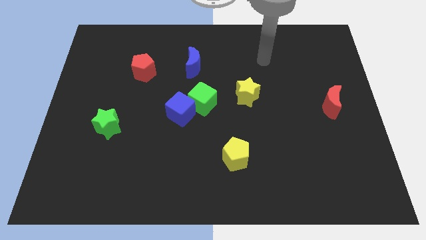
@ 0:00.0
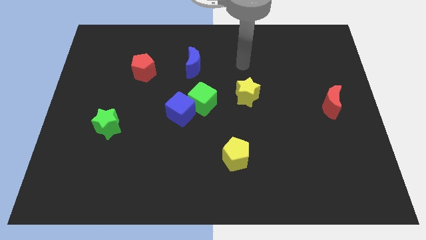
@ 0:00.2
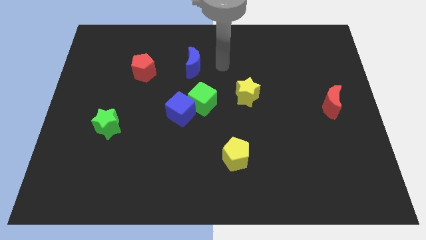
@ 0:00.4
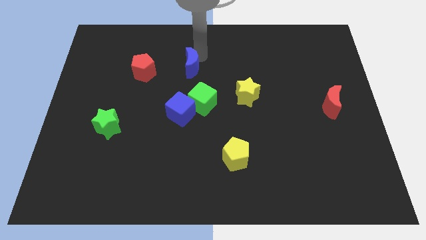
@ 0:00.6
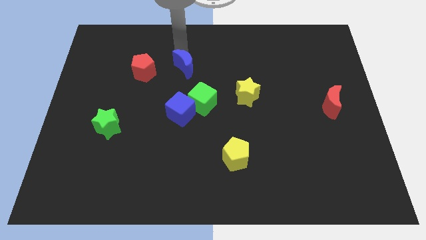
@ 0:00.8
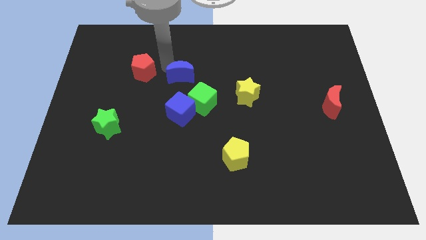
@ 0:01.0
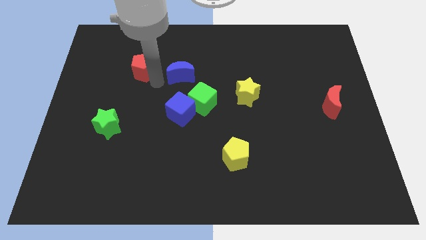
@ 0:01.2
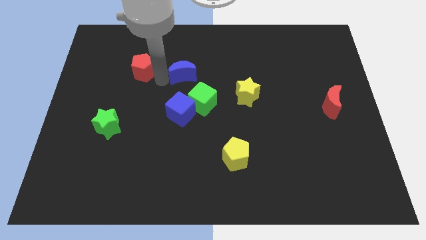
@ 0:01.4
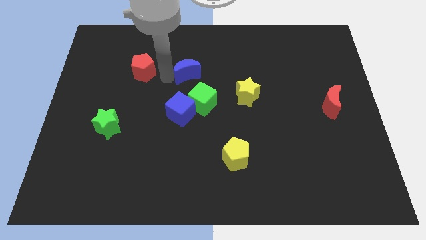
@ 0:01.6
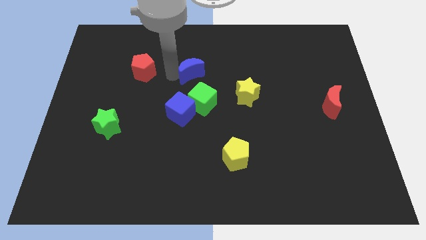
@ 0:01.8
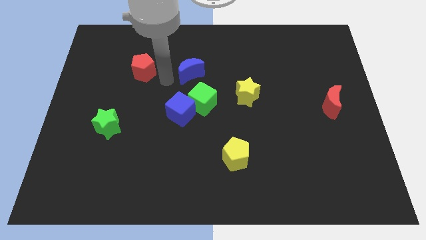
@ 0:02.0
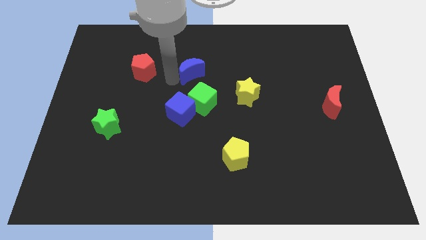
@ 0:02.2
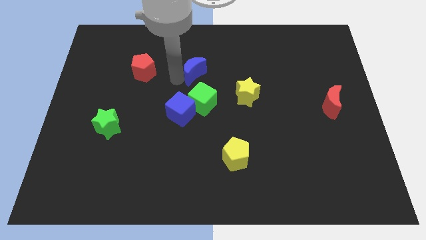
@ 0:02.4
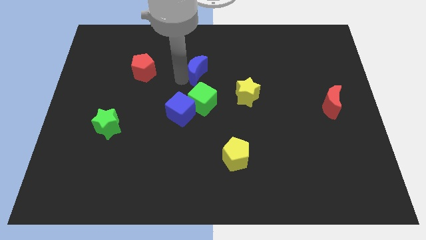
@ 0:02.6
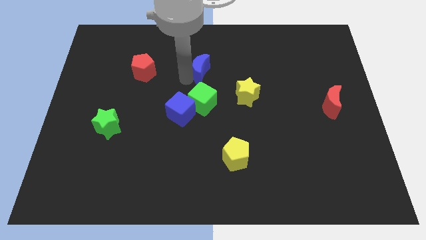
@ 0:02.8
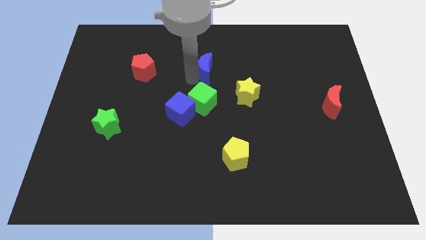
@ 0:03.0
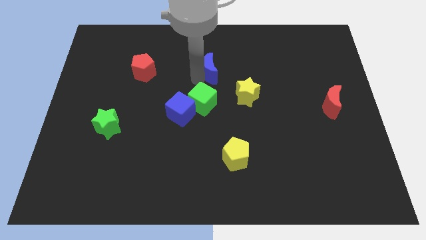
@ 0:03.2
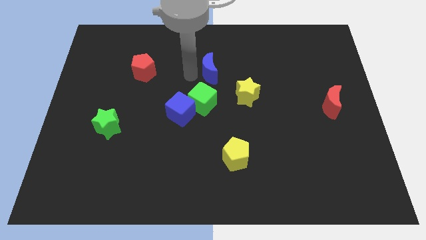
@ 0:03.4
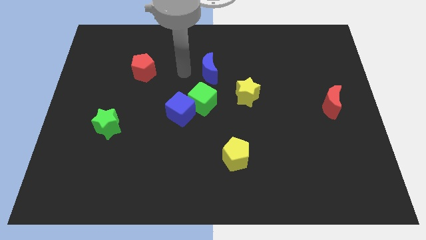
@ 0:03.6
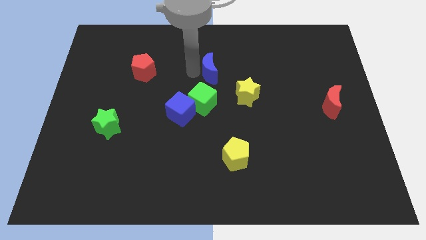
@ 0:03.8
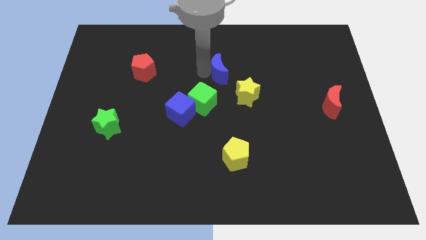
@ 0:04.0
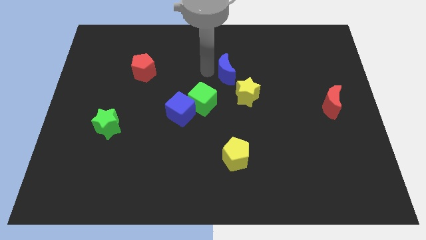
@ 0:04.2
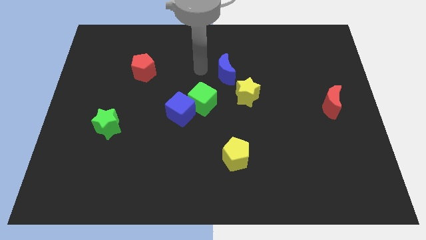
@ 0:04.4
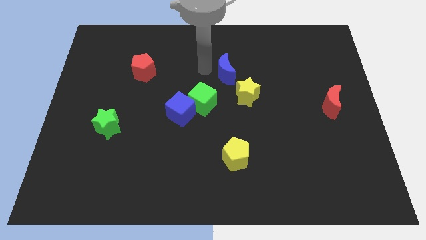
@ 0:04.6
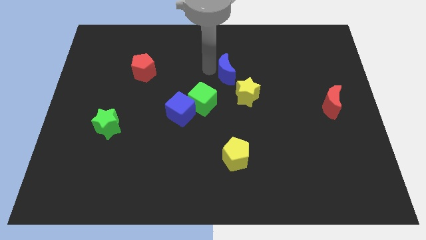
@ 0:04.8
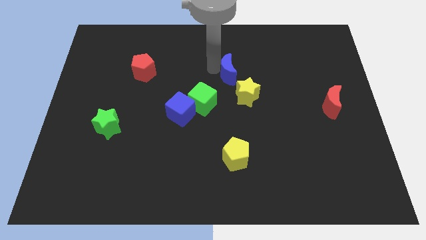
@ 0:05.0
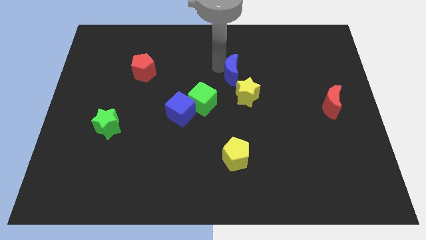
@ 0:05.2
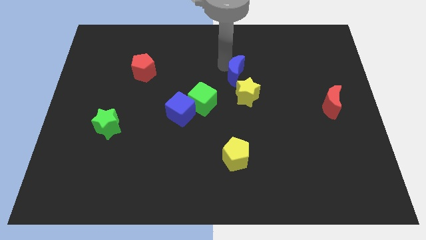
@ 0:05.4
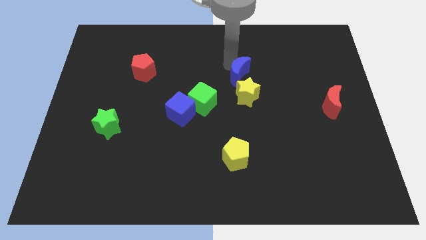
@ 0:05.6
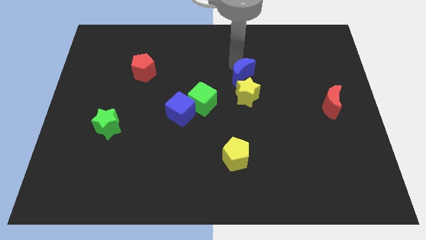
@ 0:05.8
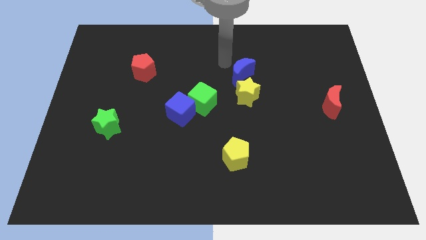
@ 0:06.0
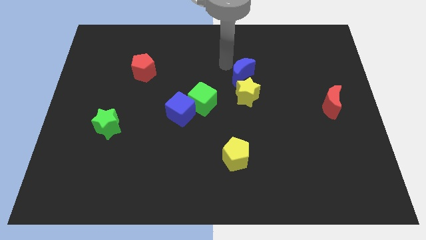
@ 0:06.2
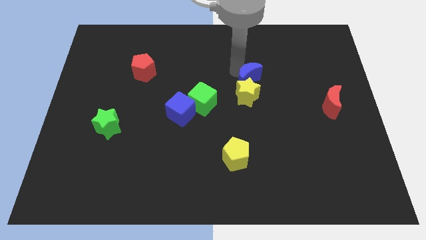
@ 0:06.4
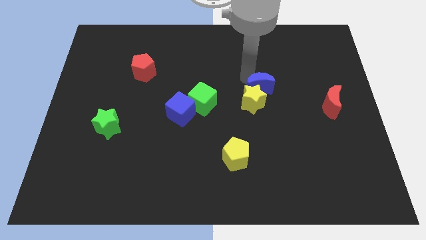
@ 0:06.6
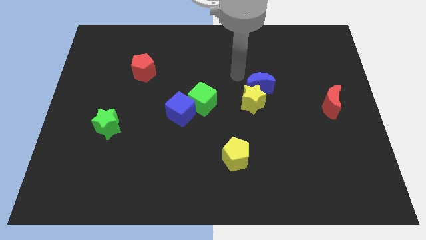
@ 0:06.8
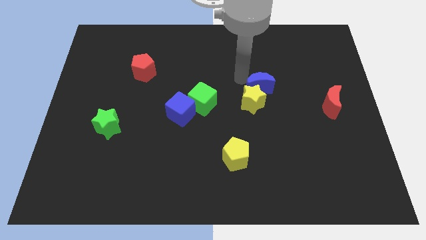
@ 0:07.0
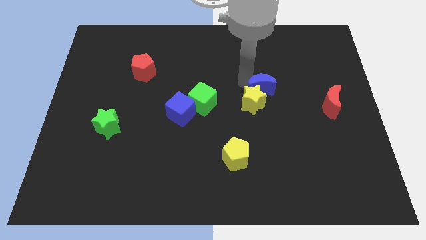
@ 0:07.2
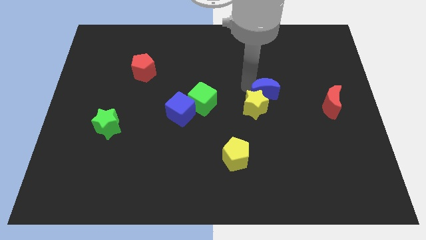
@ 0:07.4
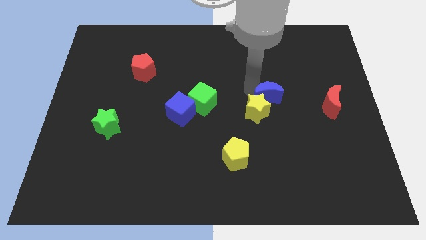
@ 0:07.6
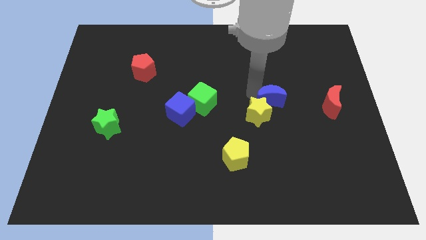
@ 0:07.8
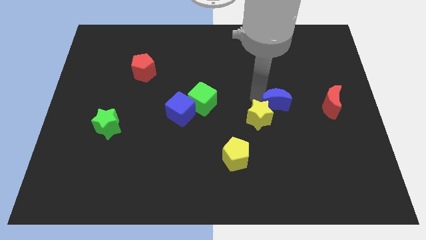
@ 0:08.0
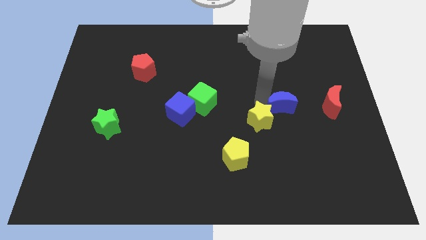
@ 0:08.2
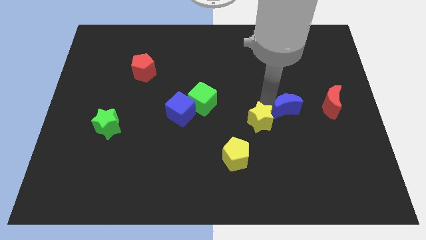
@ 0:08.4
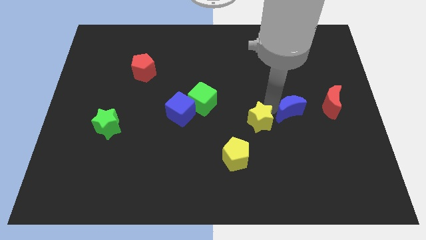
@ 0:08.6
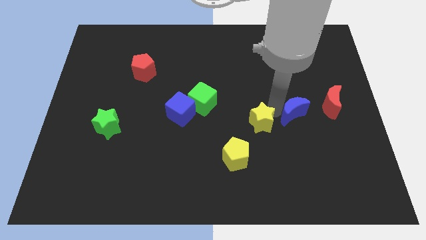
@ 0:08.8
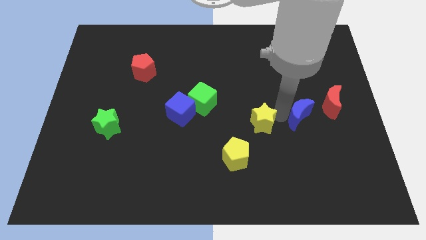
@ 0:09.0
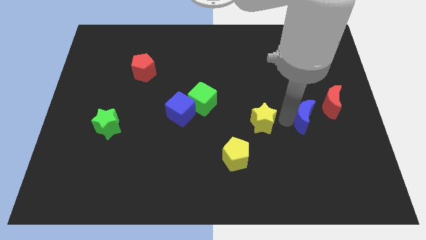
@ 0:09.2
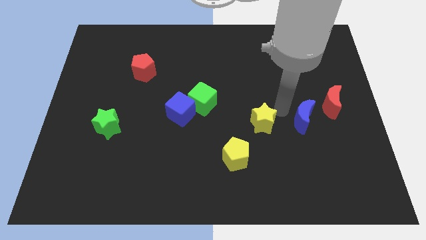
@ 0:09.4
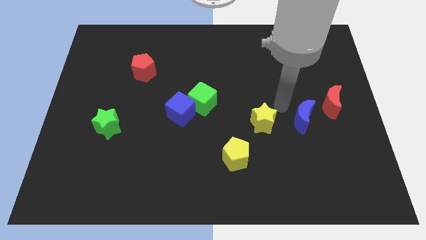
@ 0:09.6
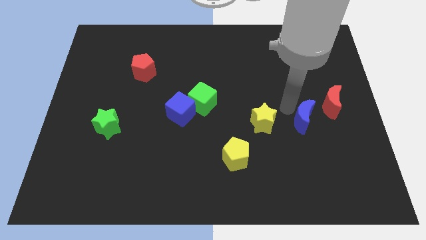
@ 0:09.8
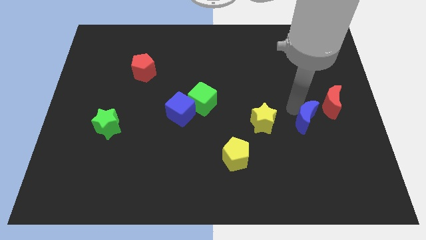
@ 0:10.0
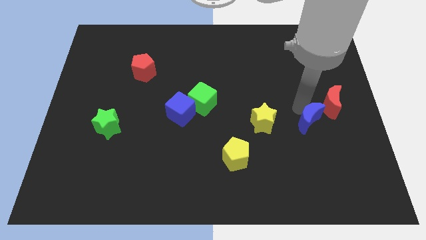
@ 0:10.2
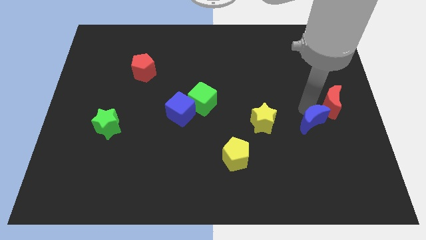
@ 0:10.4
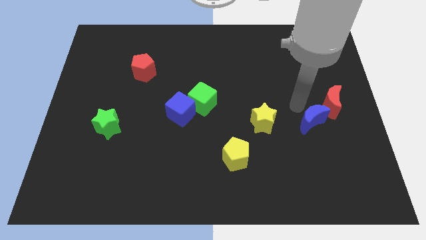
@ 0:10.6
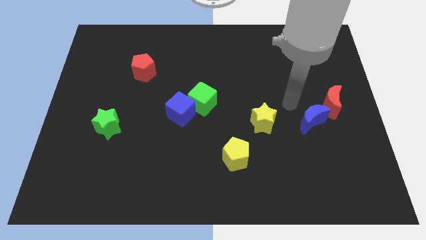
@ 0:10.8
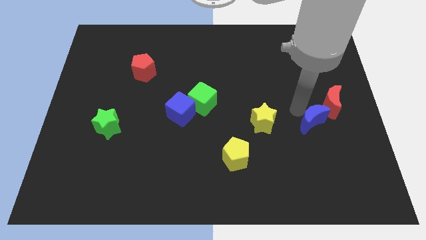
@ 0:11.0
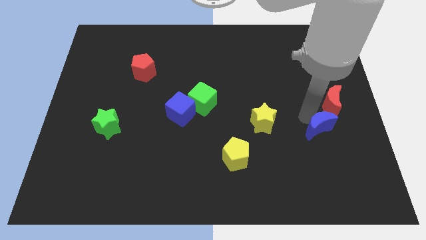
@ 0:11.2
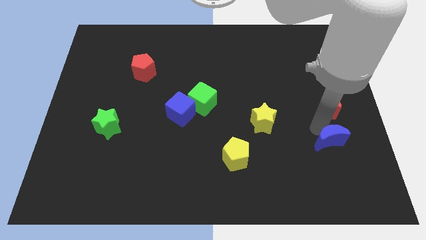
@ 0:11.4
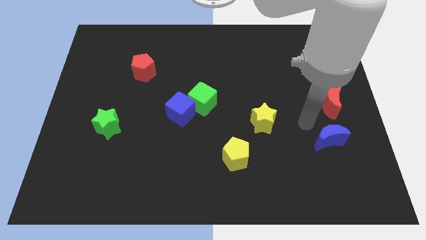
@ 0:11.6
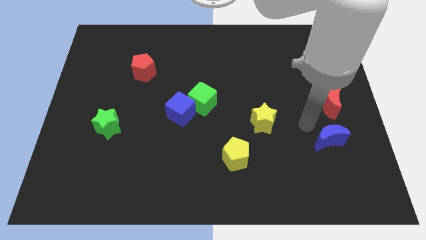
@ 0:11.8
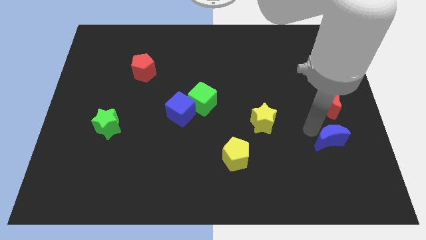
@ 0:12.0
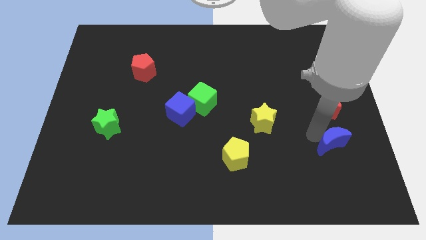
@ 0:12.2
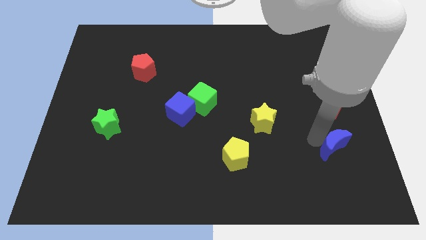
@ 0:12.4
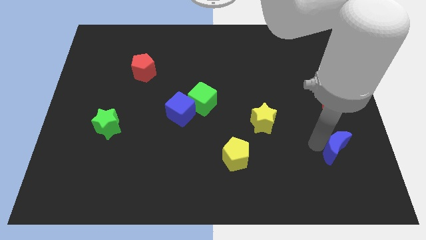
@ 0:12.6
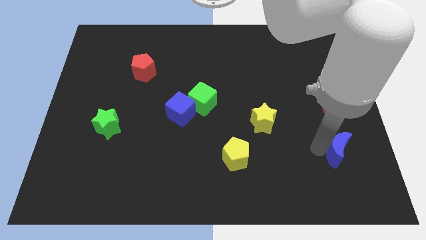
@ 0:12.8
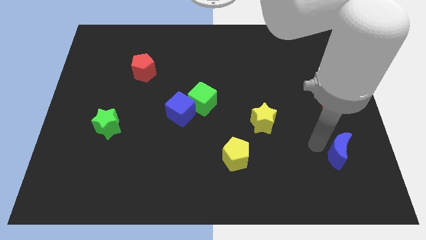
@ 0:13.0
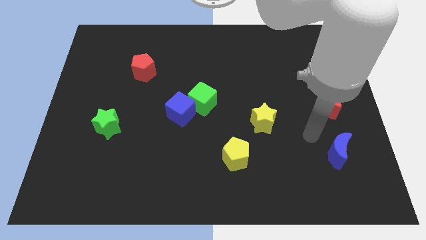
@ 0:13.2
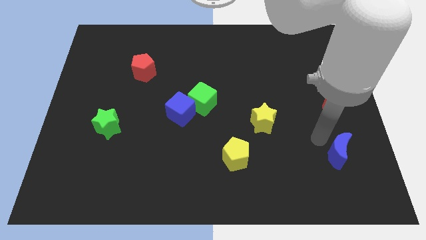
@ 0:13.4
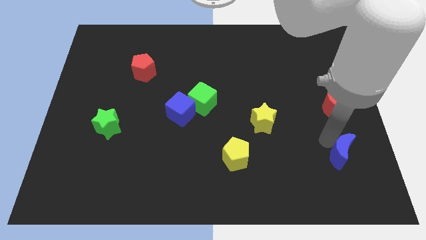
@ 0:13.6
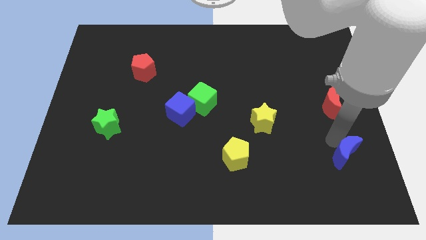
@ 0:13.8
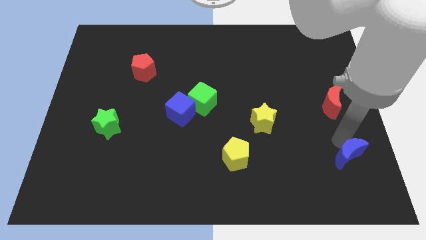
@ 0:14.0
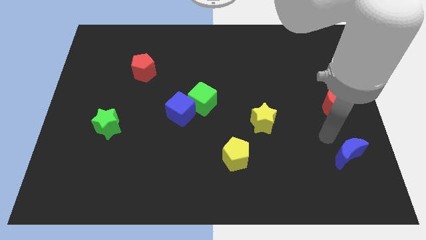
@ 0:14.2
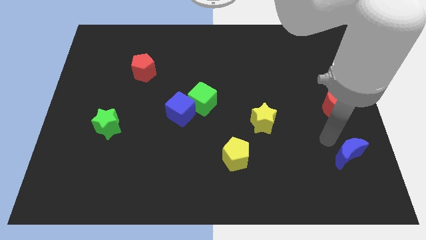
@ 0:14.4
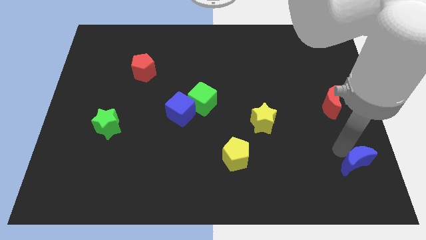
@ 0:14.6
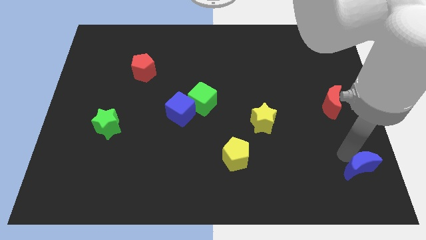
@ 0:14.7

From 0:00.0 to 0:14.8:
push the blue moon to the bottom right
